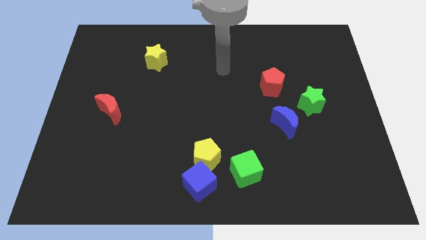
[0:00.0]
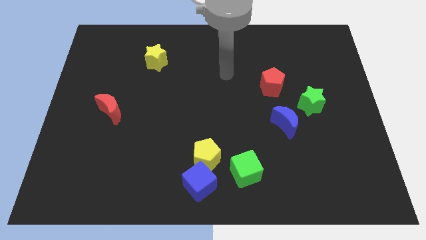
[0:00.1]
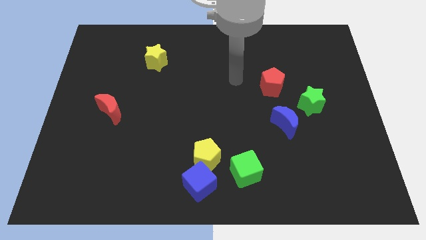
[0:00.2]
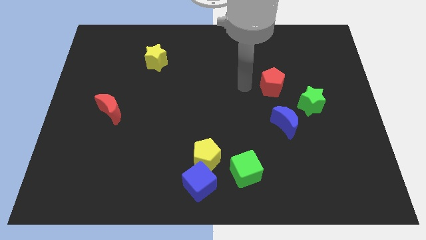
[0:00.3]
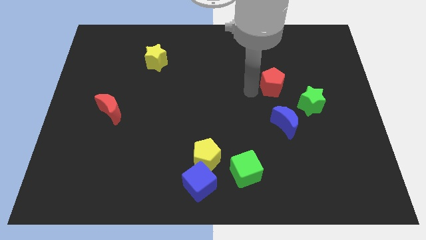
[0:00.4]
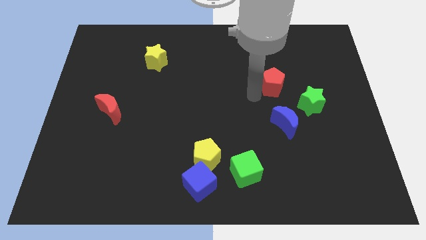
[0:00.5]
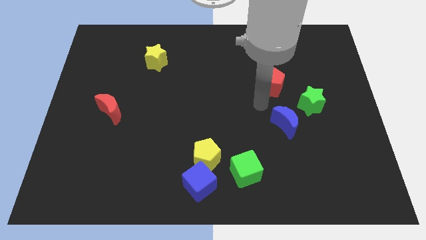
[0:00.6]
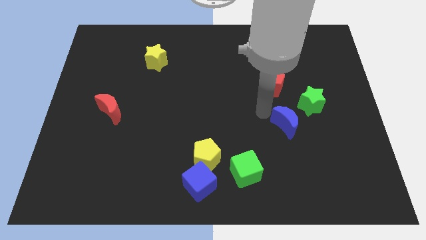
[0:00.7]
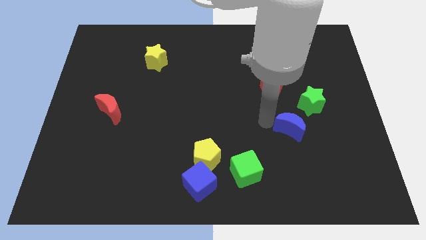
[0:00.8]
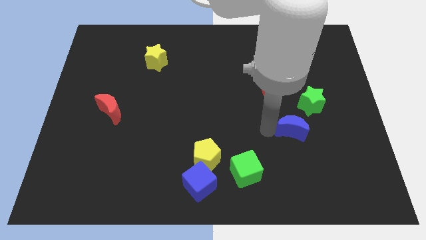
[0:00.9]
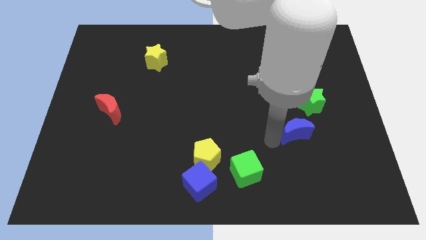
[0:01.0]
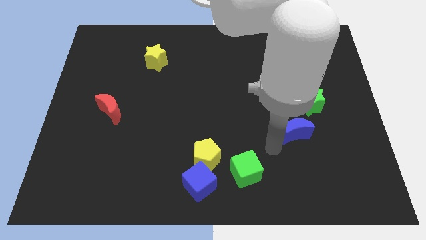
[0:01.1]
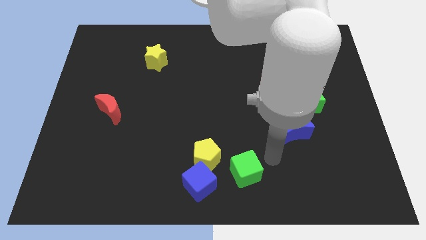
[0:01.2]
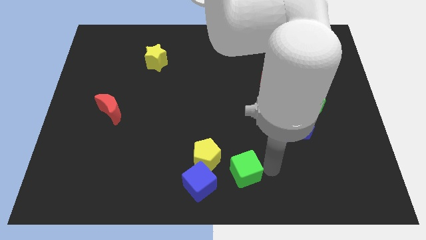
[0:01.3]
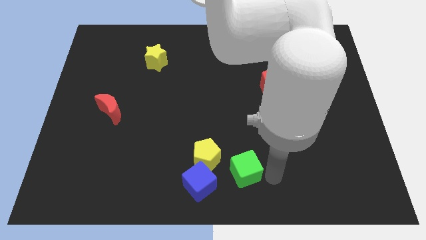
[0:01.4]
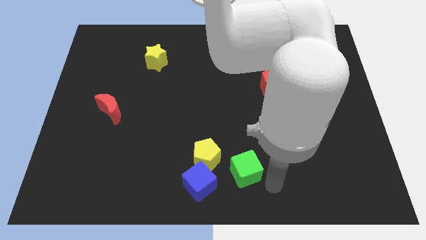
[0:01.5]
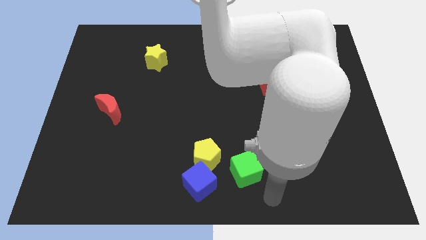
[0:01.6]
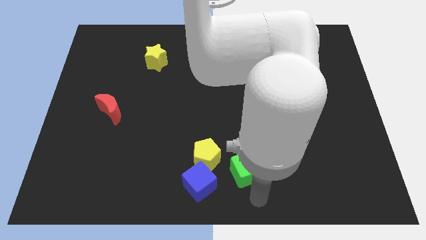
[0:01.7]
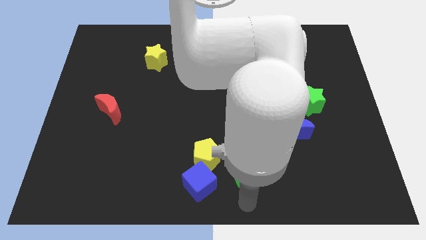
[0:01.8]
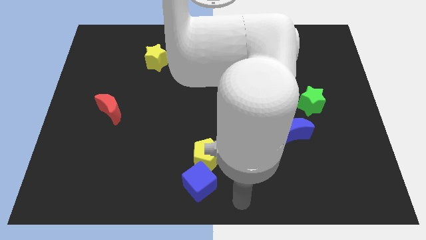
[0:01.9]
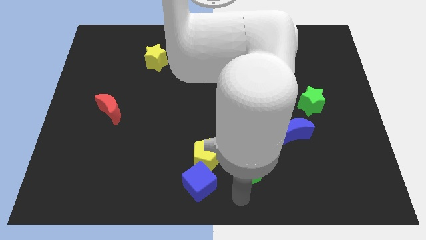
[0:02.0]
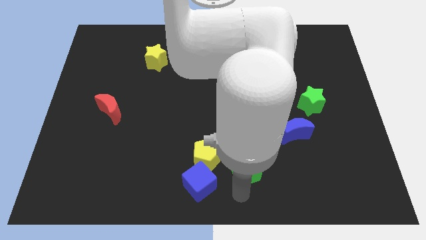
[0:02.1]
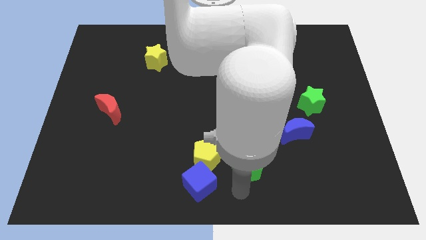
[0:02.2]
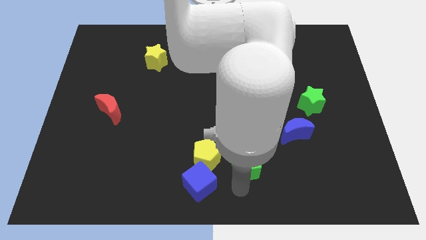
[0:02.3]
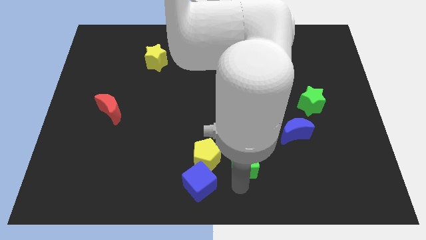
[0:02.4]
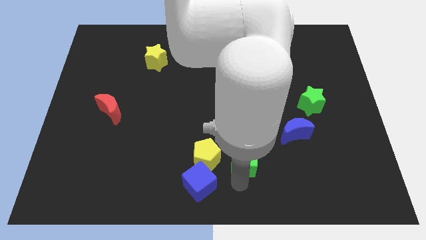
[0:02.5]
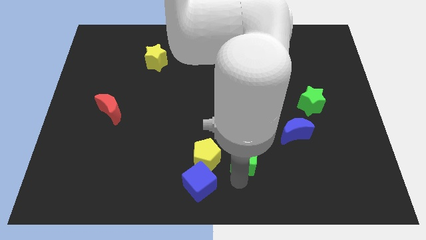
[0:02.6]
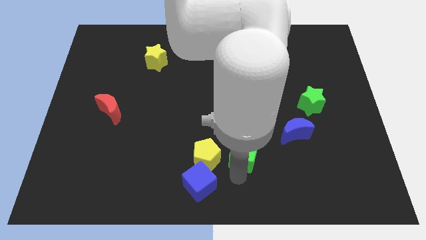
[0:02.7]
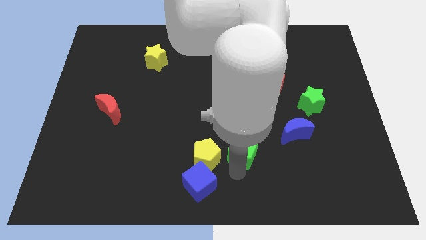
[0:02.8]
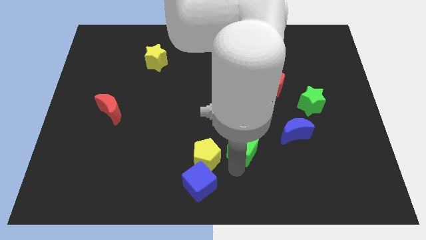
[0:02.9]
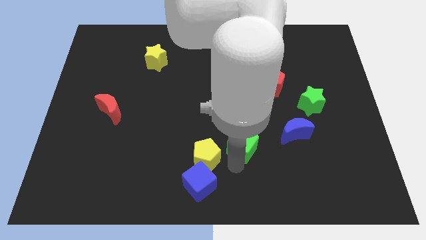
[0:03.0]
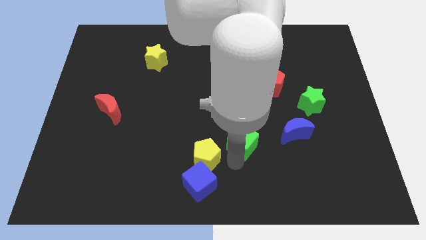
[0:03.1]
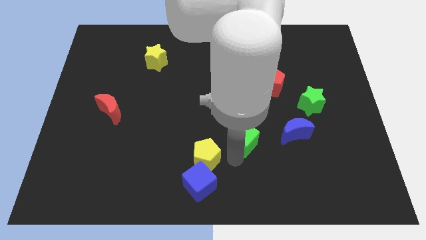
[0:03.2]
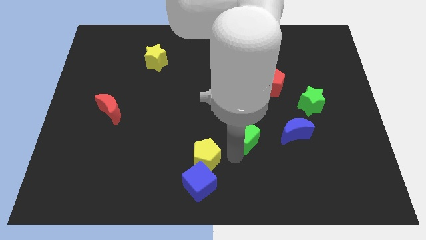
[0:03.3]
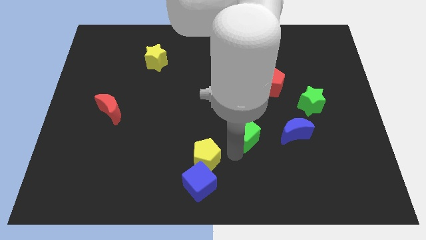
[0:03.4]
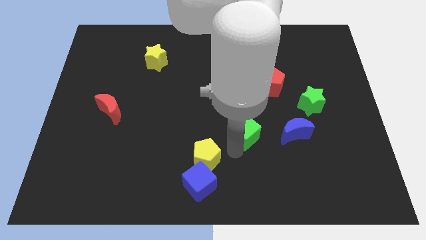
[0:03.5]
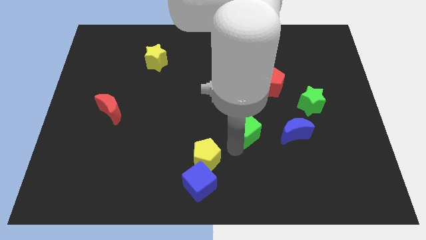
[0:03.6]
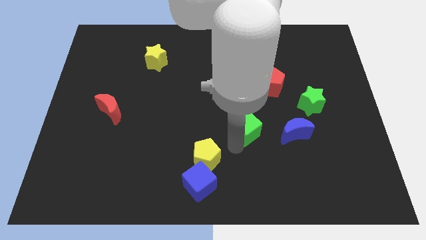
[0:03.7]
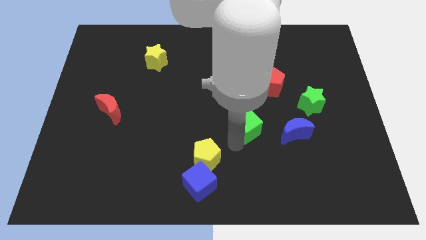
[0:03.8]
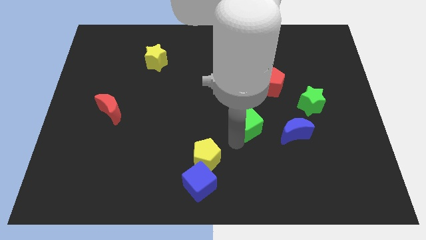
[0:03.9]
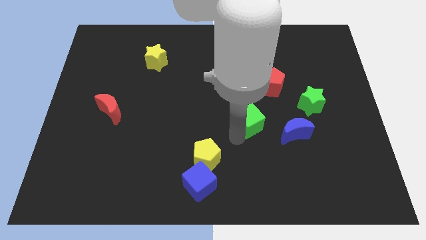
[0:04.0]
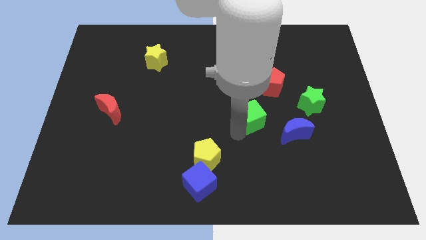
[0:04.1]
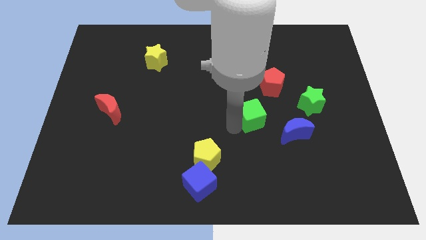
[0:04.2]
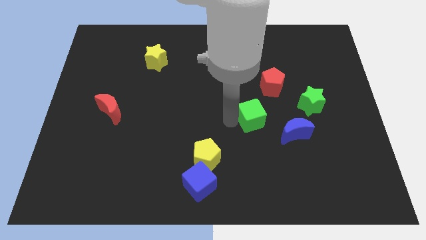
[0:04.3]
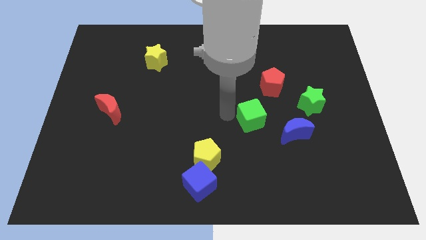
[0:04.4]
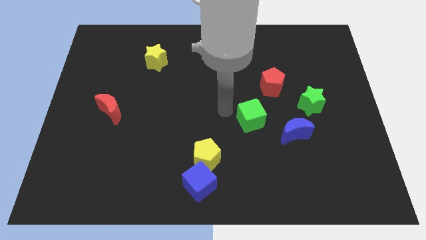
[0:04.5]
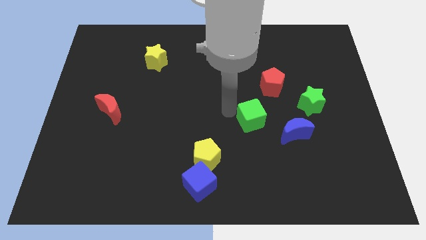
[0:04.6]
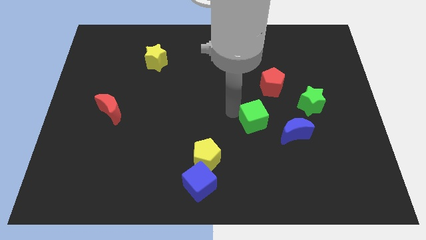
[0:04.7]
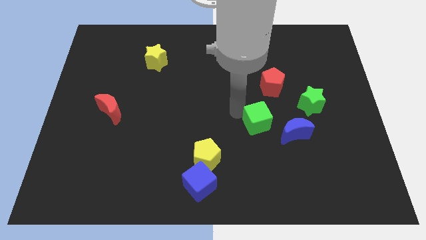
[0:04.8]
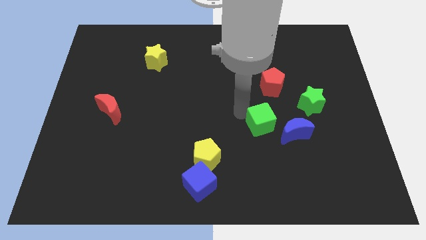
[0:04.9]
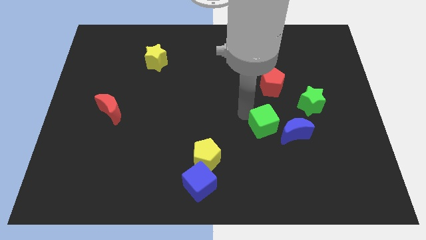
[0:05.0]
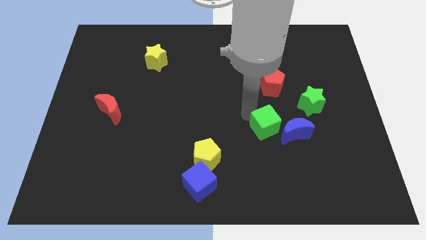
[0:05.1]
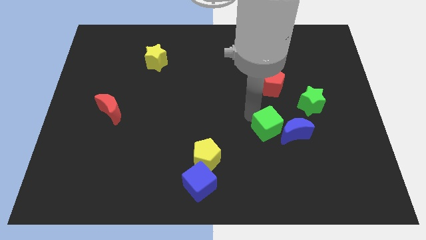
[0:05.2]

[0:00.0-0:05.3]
put the green cube towards the blue moon

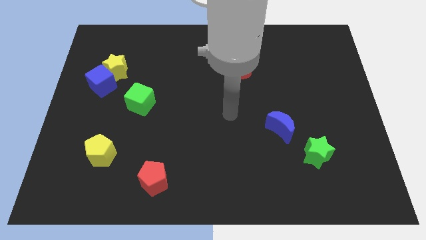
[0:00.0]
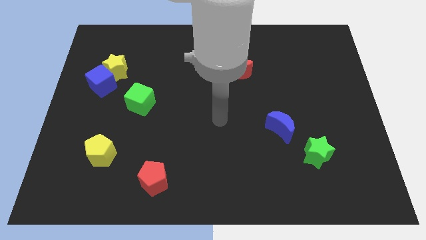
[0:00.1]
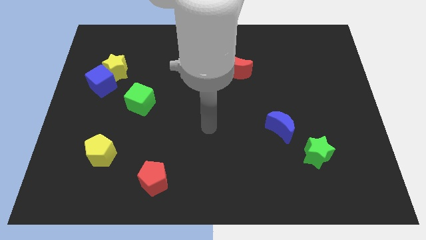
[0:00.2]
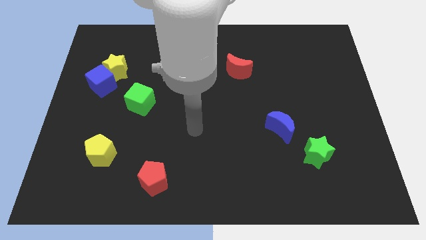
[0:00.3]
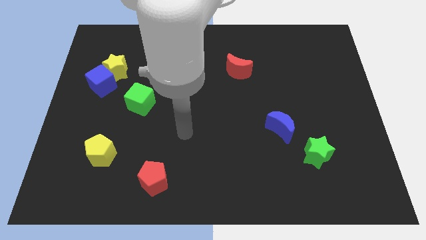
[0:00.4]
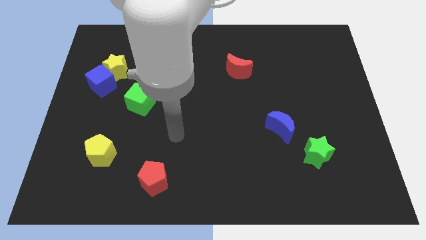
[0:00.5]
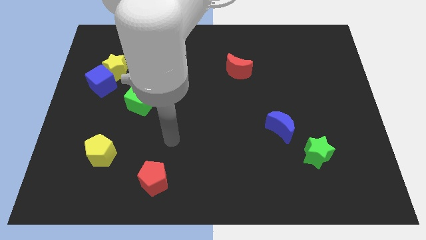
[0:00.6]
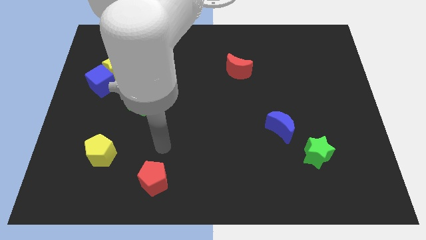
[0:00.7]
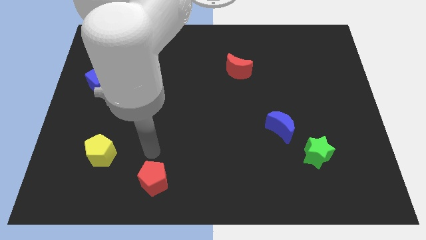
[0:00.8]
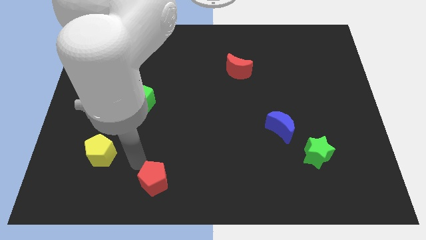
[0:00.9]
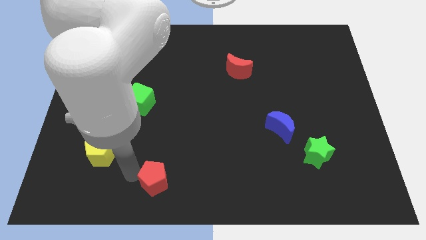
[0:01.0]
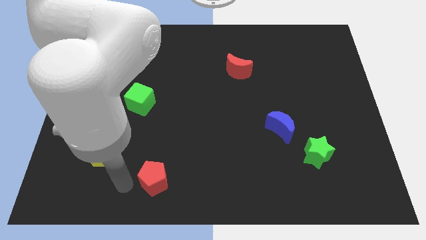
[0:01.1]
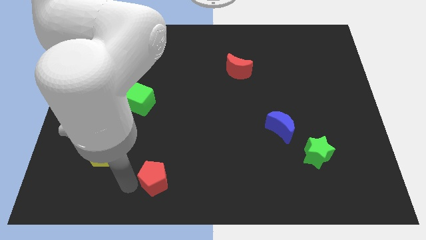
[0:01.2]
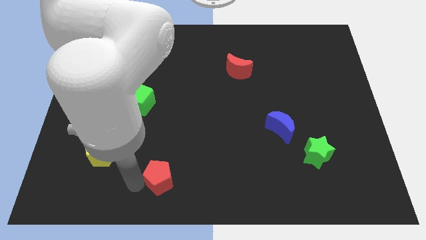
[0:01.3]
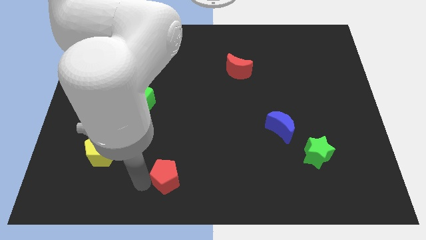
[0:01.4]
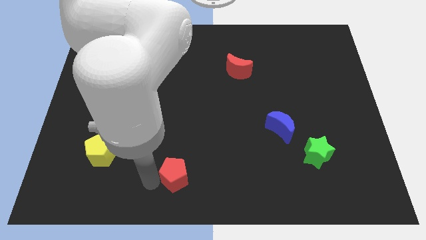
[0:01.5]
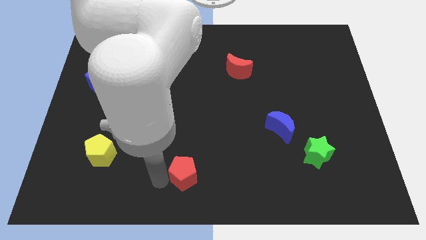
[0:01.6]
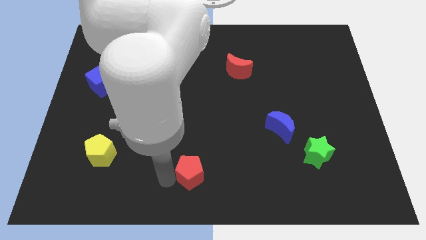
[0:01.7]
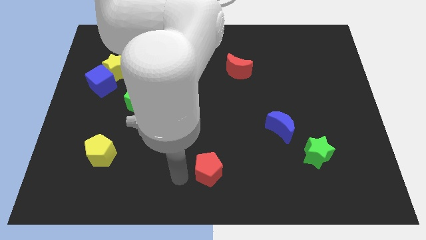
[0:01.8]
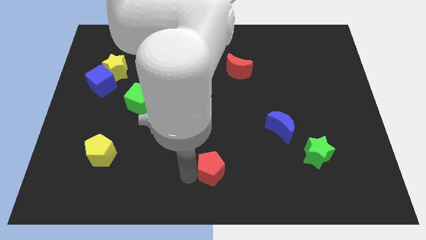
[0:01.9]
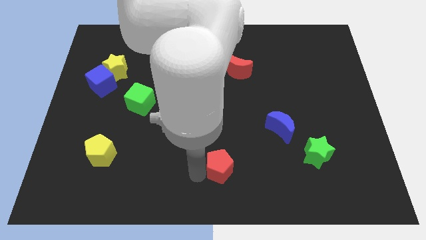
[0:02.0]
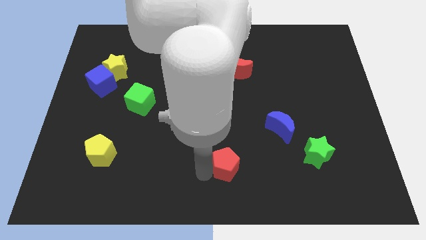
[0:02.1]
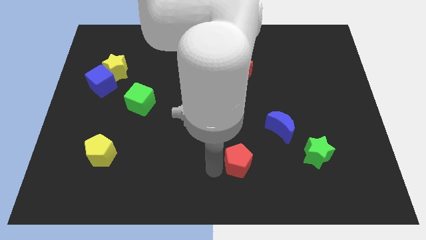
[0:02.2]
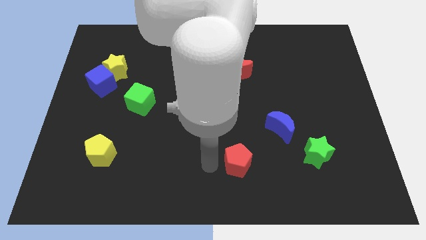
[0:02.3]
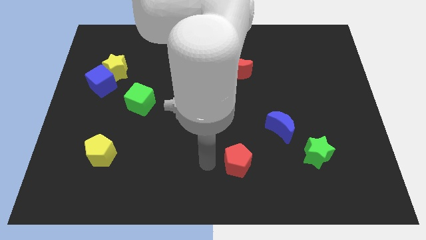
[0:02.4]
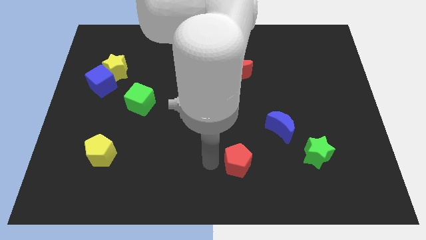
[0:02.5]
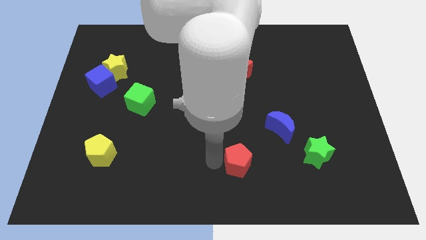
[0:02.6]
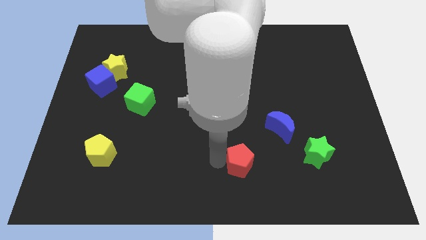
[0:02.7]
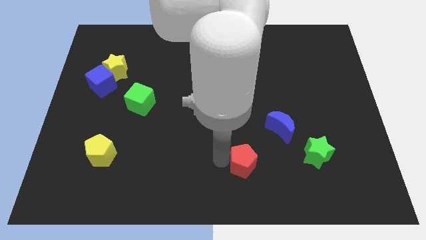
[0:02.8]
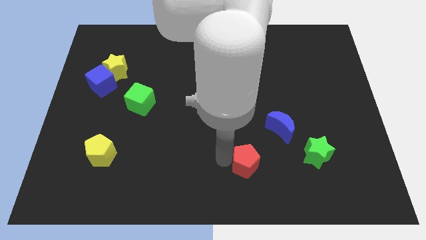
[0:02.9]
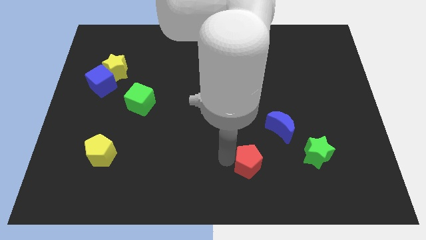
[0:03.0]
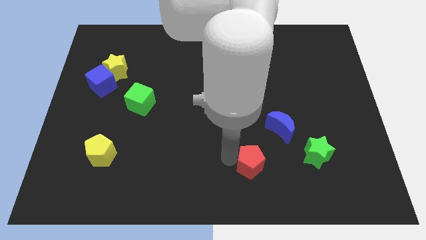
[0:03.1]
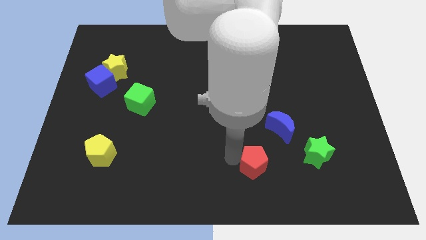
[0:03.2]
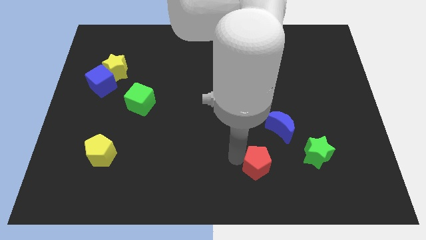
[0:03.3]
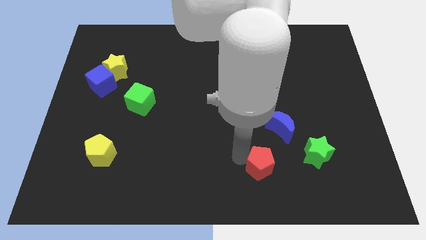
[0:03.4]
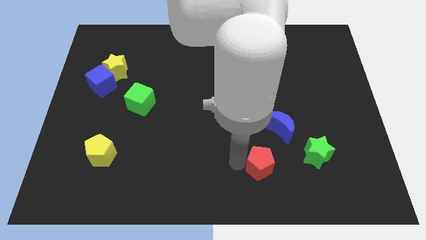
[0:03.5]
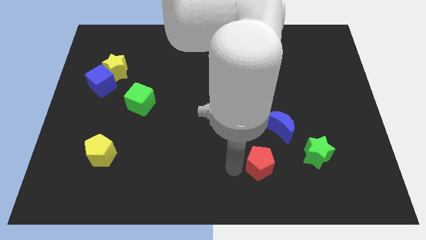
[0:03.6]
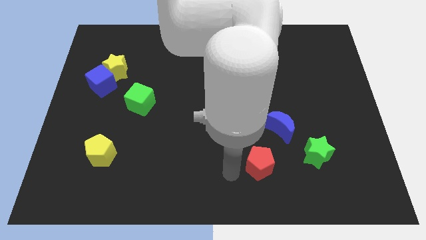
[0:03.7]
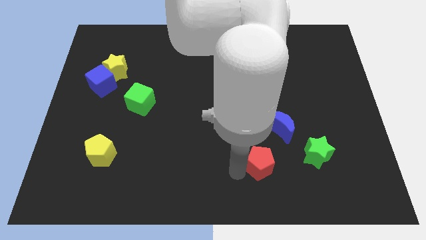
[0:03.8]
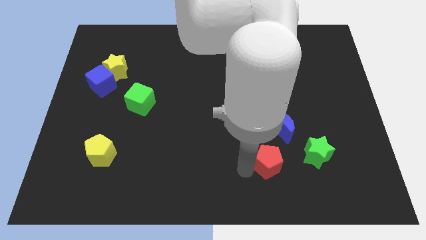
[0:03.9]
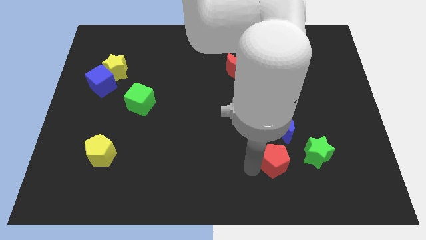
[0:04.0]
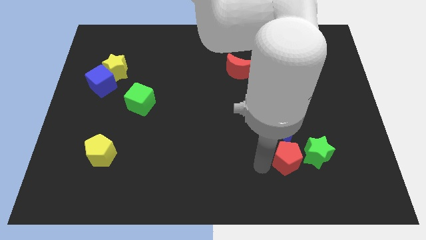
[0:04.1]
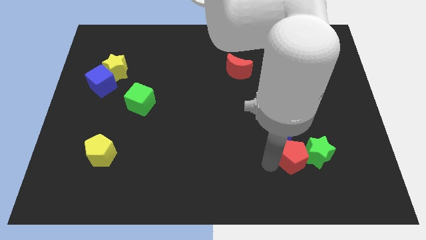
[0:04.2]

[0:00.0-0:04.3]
slide the red pentagon close to the green star
